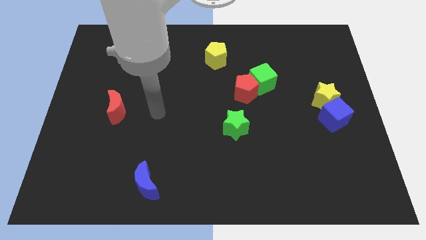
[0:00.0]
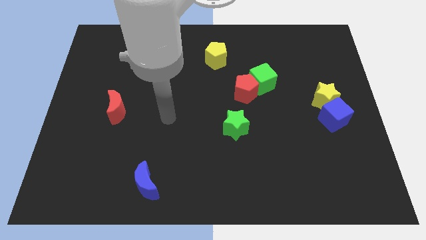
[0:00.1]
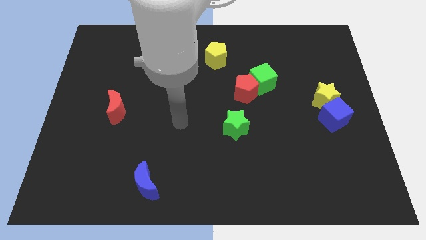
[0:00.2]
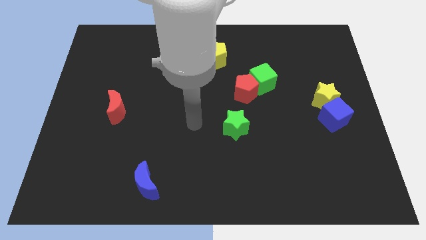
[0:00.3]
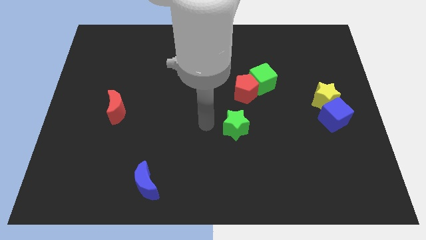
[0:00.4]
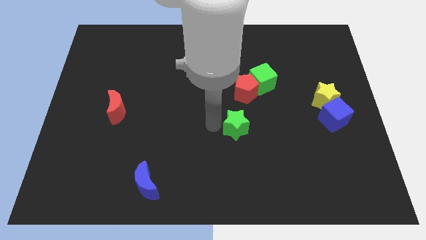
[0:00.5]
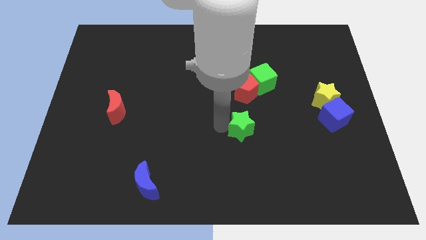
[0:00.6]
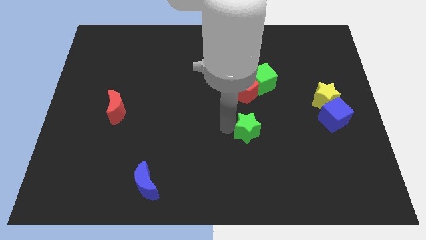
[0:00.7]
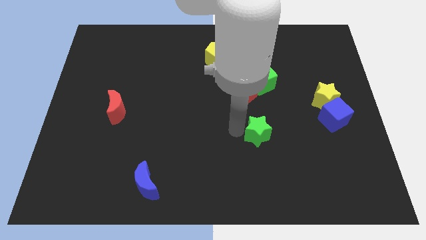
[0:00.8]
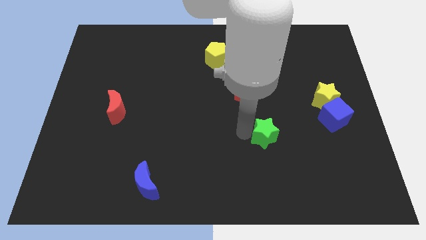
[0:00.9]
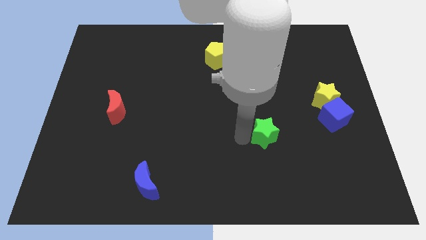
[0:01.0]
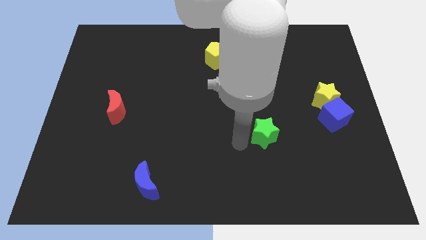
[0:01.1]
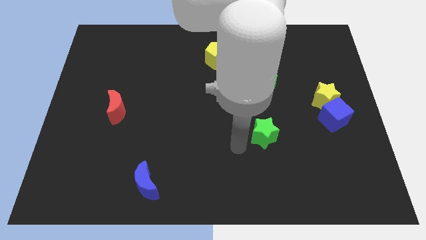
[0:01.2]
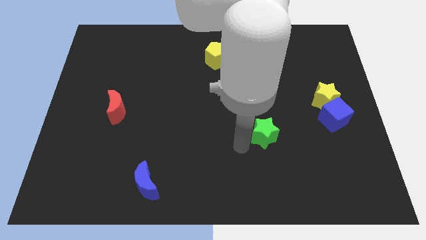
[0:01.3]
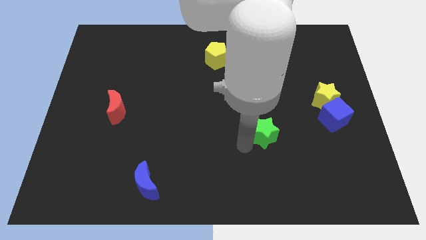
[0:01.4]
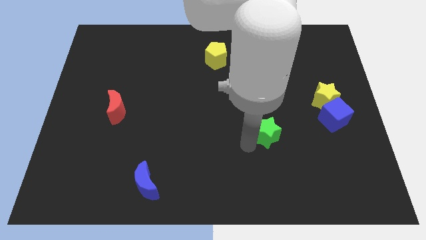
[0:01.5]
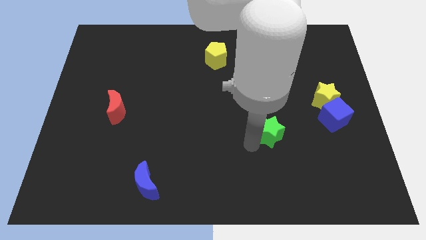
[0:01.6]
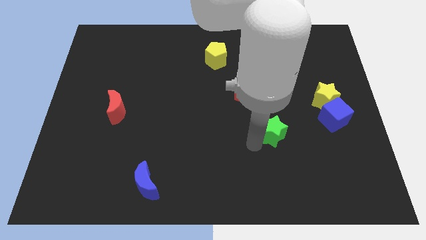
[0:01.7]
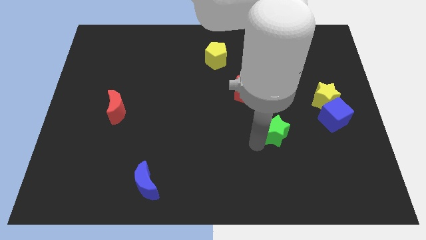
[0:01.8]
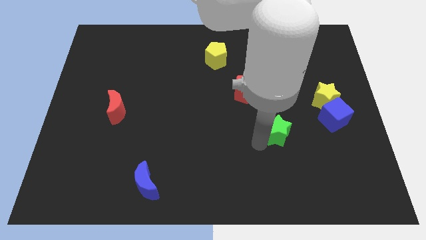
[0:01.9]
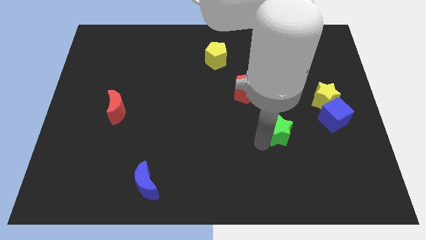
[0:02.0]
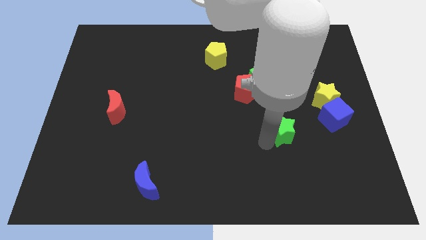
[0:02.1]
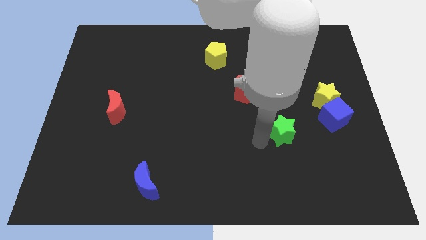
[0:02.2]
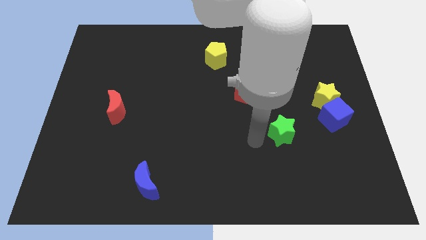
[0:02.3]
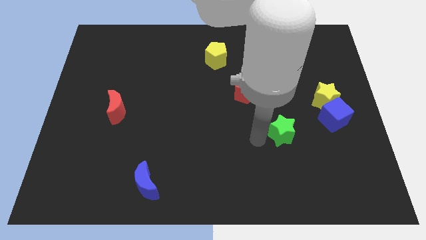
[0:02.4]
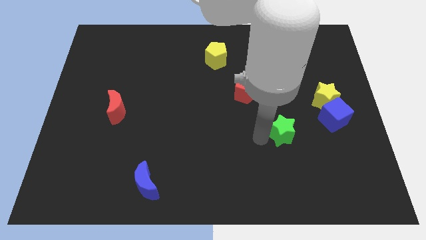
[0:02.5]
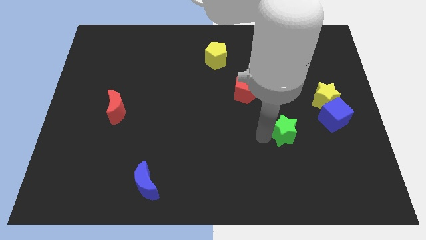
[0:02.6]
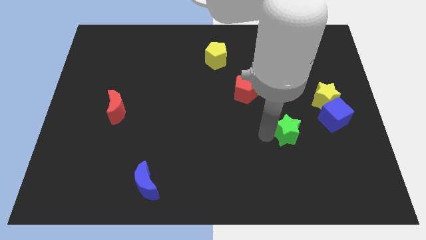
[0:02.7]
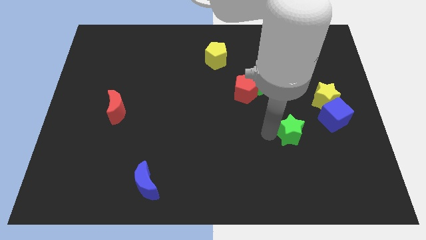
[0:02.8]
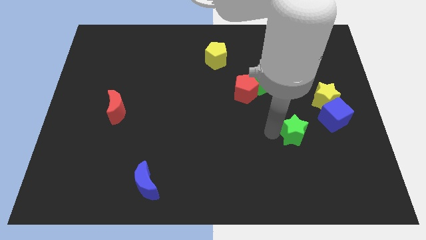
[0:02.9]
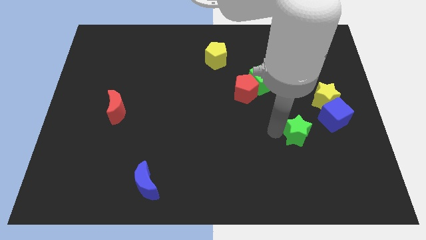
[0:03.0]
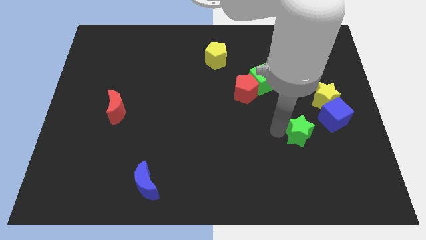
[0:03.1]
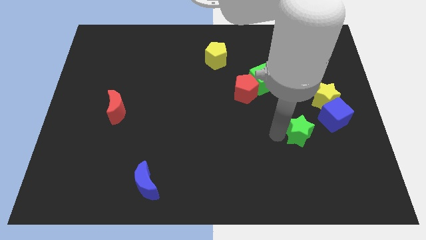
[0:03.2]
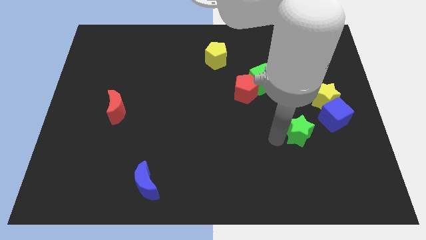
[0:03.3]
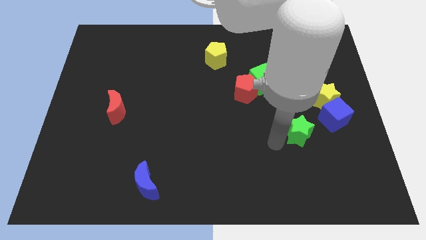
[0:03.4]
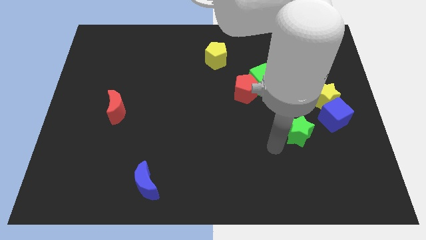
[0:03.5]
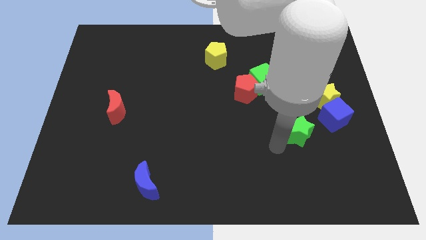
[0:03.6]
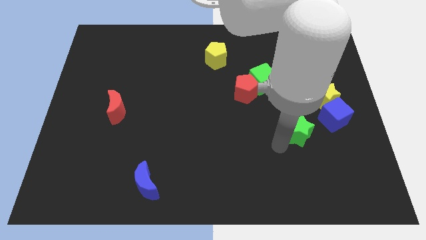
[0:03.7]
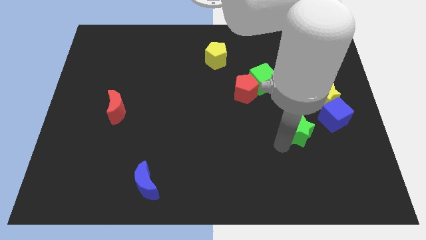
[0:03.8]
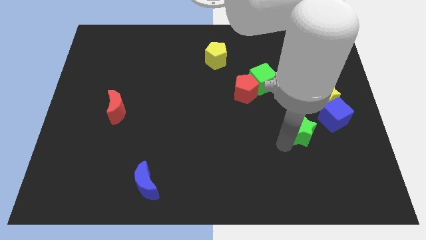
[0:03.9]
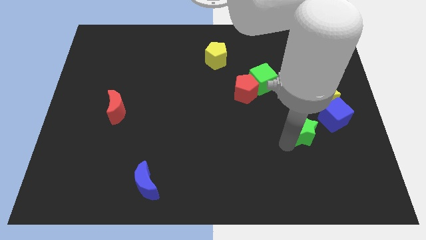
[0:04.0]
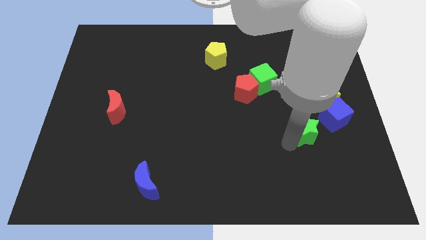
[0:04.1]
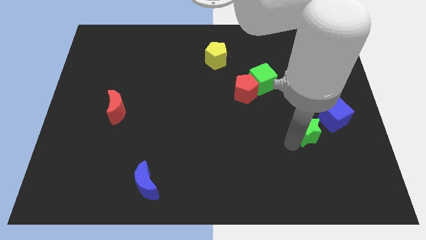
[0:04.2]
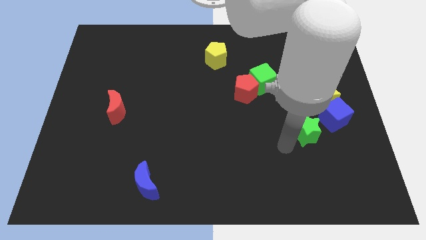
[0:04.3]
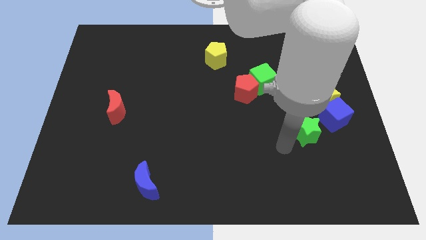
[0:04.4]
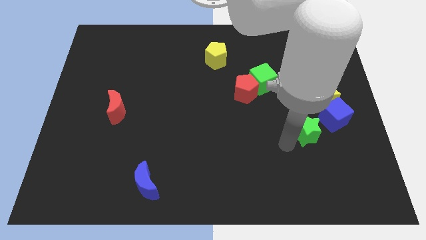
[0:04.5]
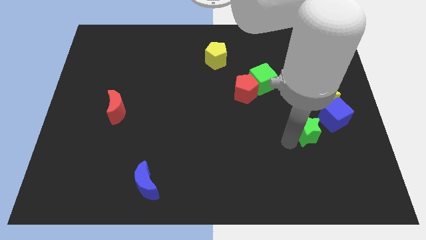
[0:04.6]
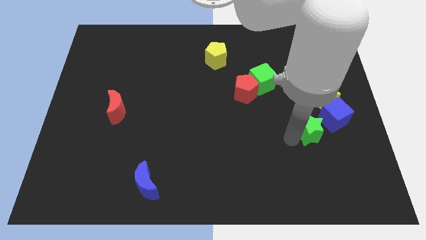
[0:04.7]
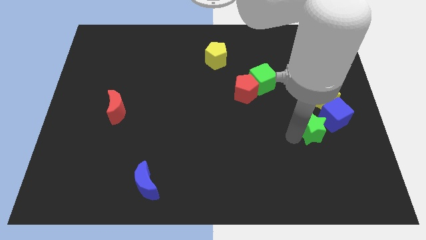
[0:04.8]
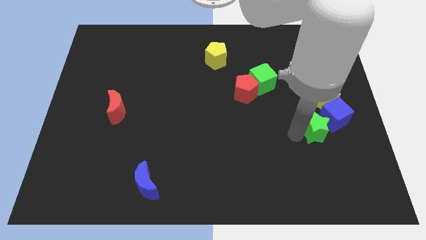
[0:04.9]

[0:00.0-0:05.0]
move the green star next to the blue cube

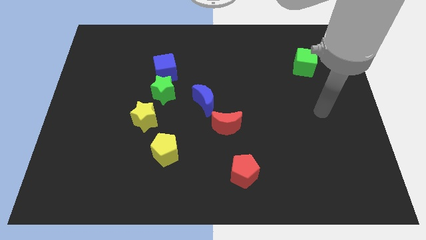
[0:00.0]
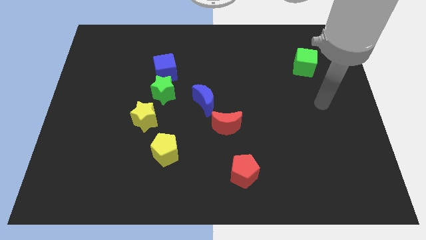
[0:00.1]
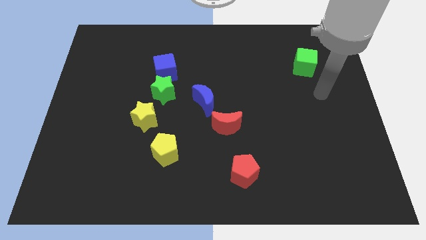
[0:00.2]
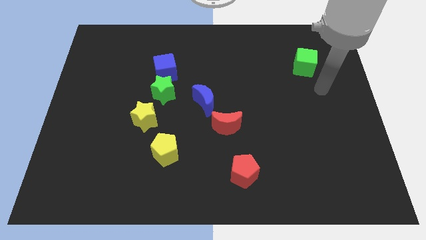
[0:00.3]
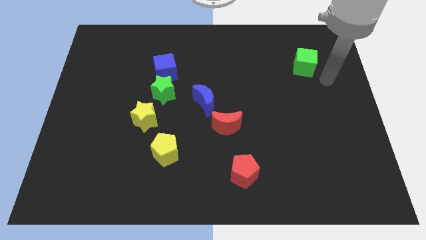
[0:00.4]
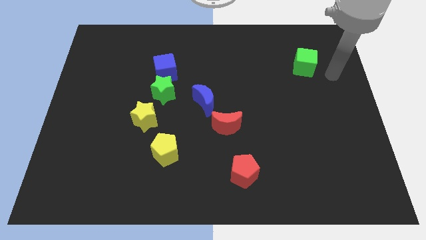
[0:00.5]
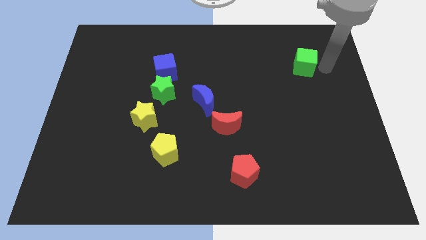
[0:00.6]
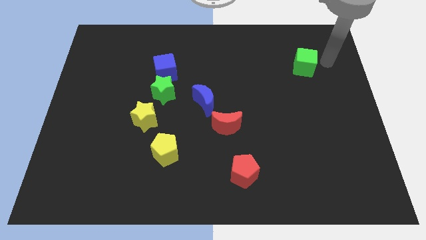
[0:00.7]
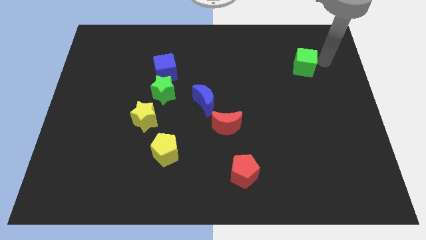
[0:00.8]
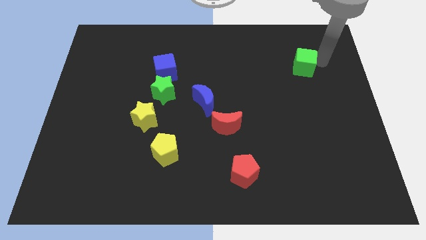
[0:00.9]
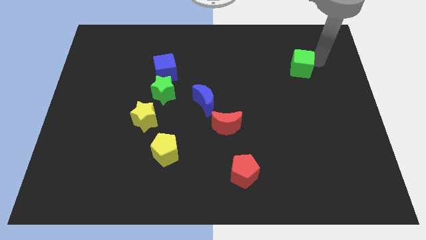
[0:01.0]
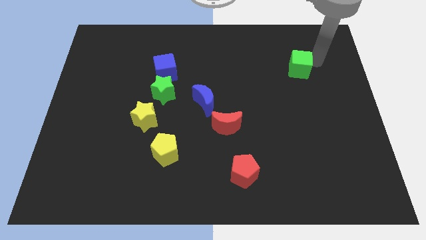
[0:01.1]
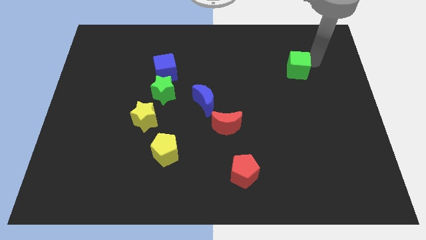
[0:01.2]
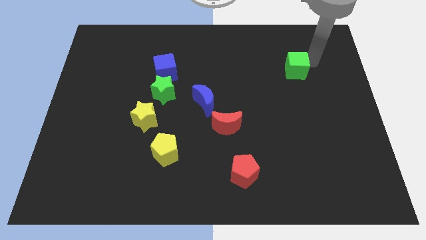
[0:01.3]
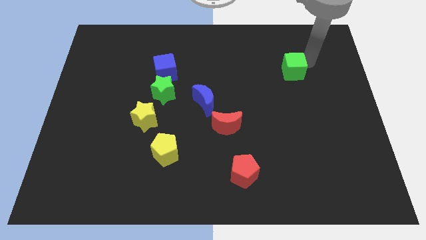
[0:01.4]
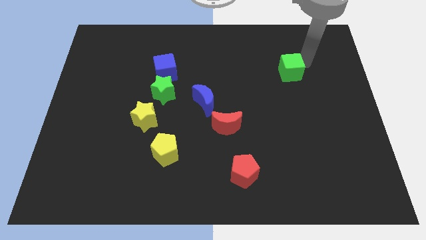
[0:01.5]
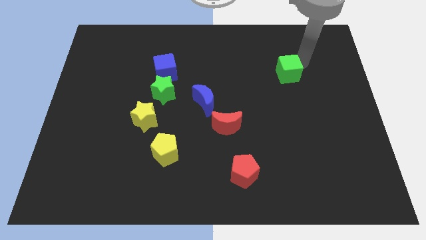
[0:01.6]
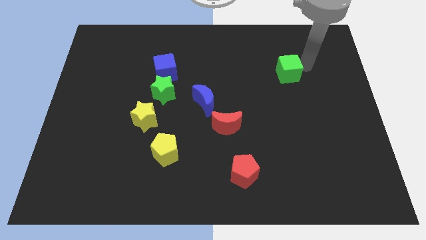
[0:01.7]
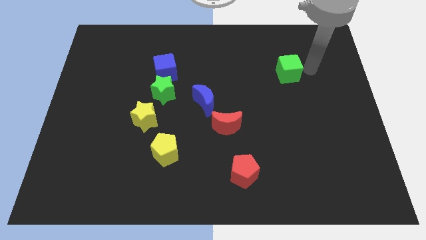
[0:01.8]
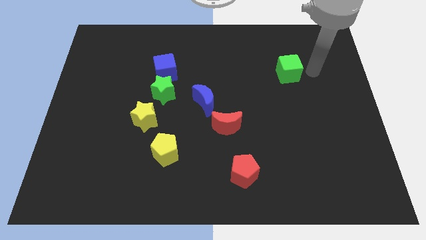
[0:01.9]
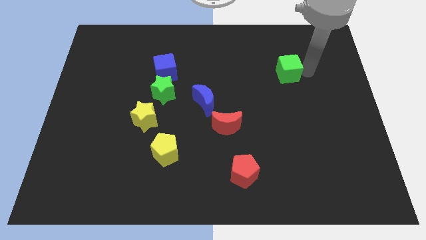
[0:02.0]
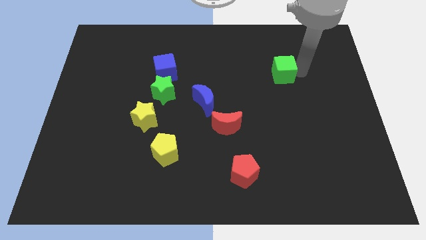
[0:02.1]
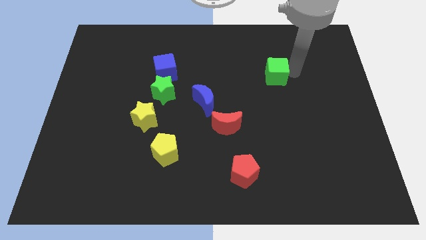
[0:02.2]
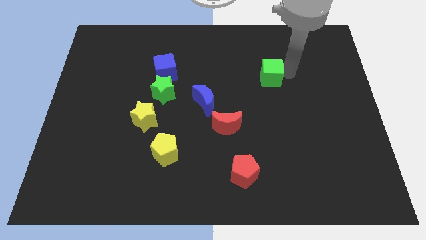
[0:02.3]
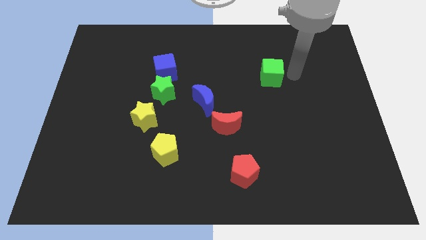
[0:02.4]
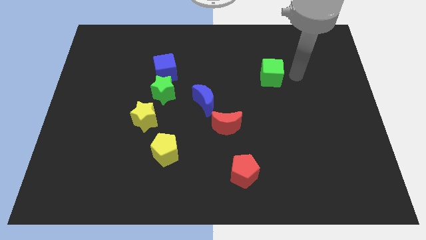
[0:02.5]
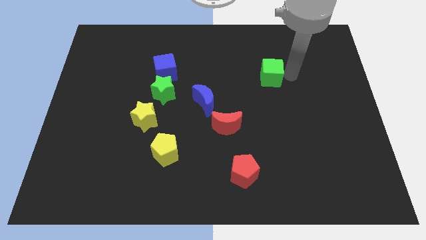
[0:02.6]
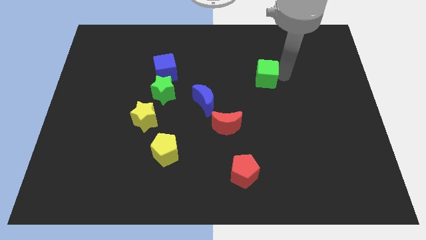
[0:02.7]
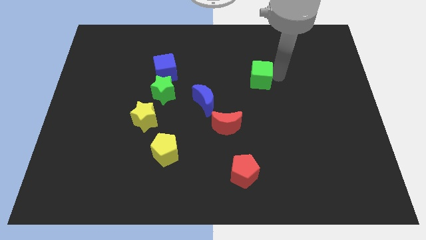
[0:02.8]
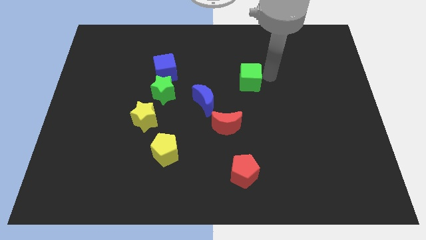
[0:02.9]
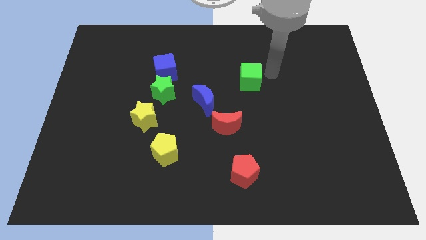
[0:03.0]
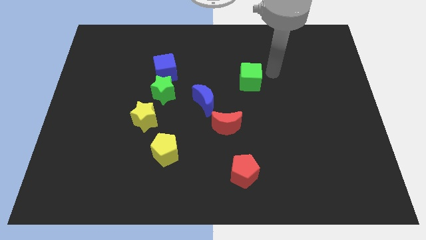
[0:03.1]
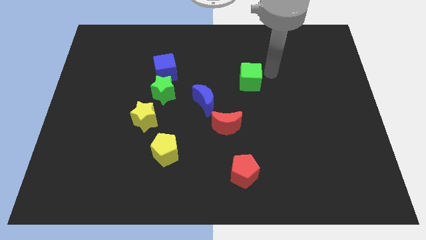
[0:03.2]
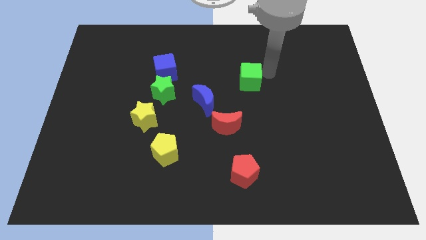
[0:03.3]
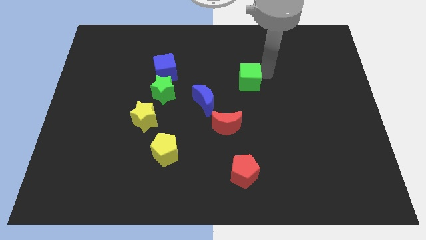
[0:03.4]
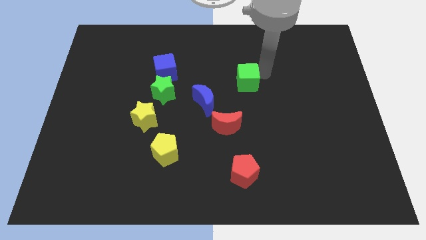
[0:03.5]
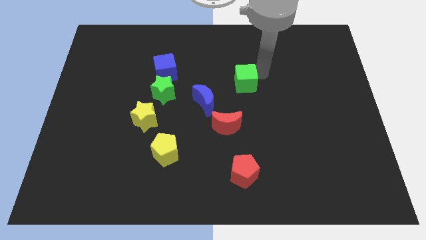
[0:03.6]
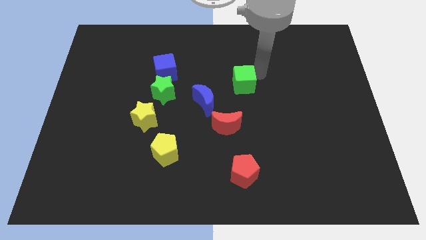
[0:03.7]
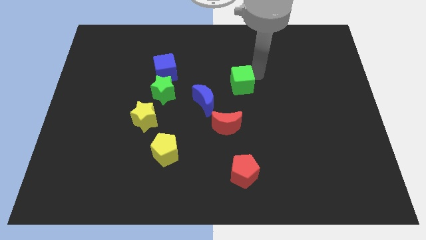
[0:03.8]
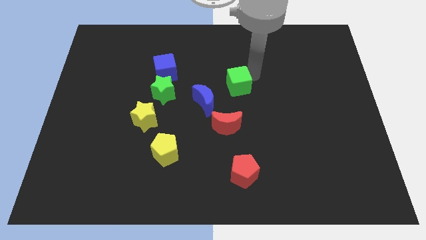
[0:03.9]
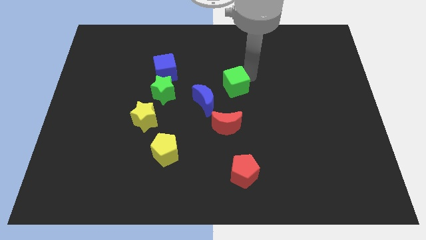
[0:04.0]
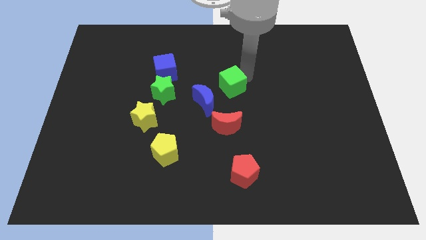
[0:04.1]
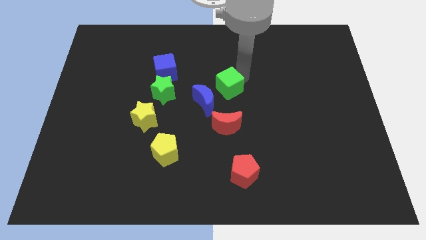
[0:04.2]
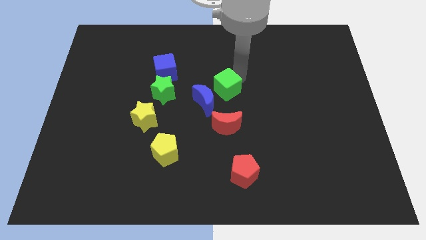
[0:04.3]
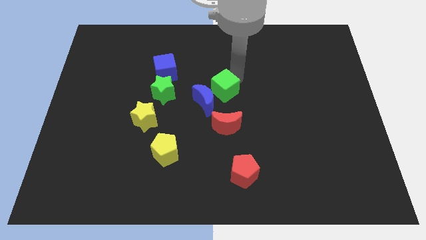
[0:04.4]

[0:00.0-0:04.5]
slide the green cube next to the blue moon
